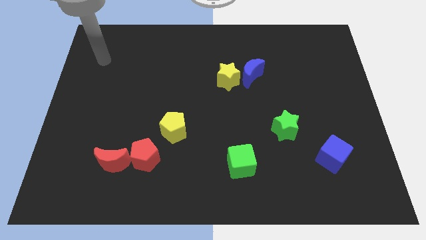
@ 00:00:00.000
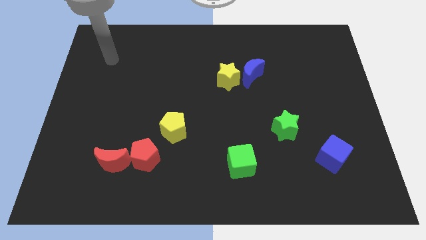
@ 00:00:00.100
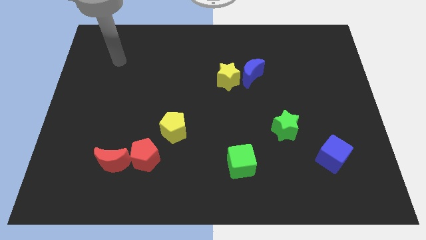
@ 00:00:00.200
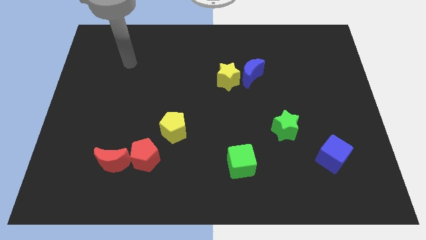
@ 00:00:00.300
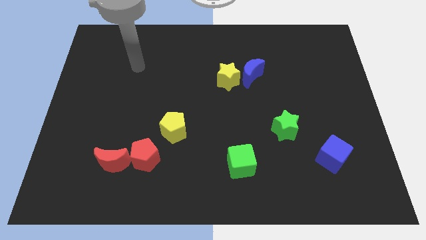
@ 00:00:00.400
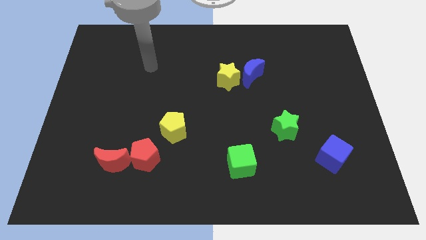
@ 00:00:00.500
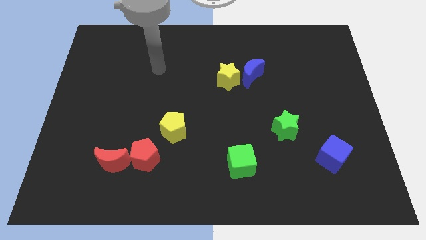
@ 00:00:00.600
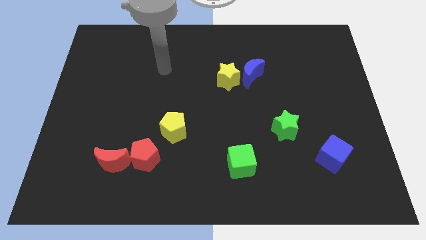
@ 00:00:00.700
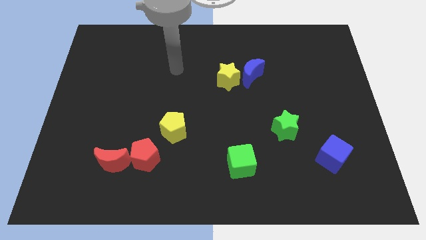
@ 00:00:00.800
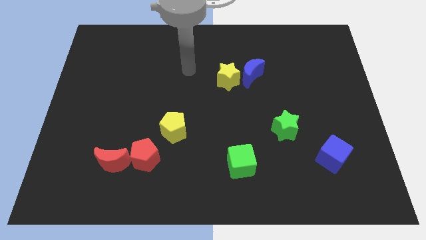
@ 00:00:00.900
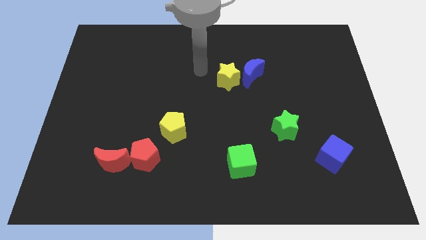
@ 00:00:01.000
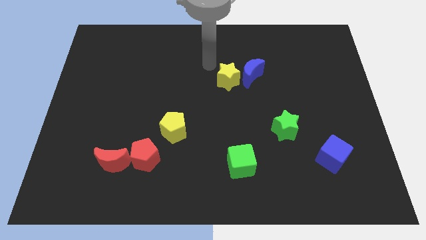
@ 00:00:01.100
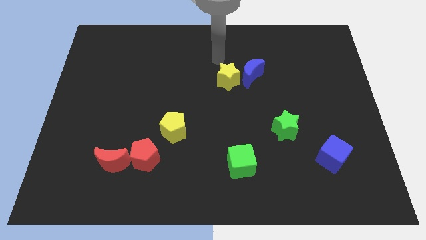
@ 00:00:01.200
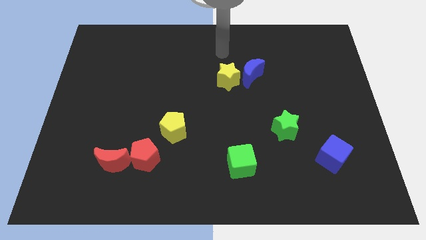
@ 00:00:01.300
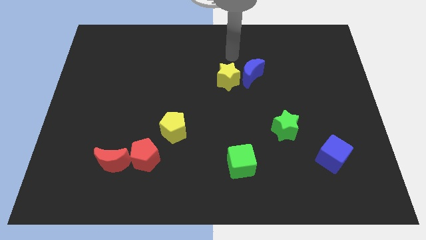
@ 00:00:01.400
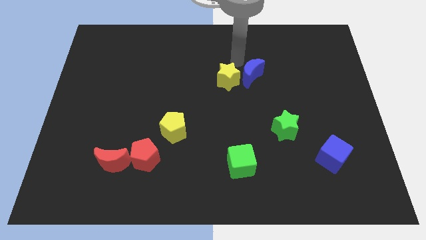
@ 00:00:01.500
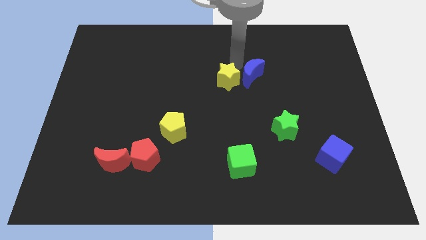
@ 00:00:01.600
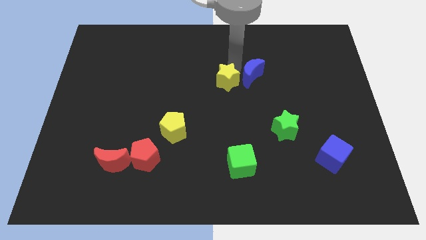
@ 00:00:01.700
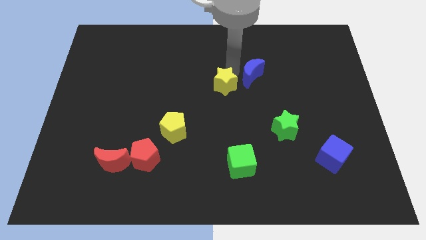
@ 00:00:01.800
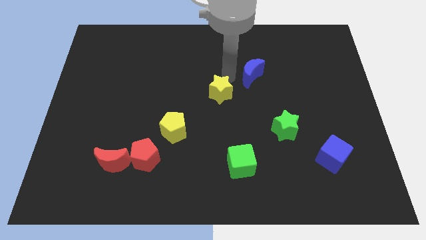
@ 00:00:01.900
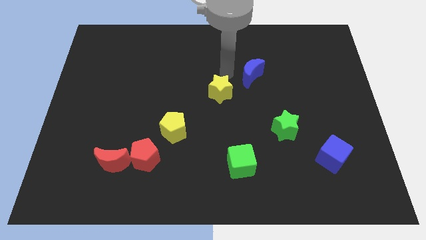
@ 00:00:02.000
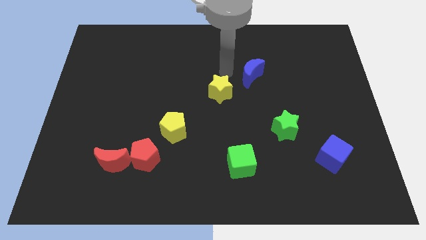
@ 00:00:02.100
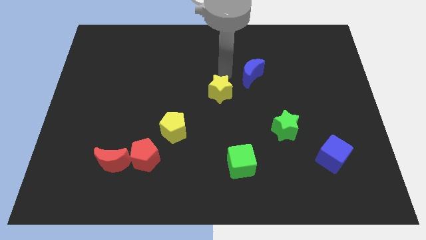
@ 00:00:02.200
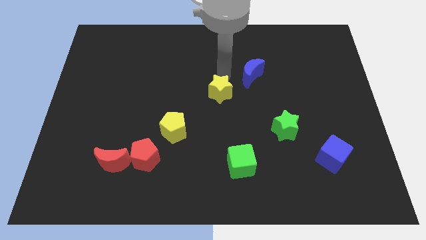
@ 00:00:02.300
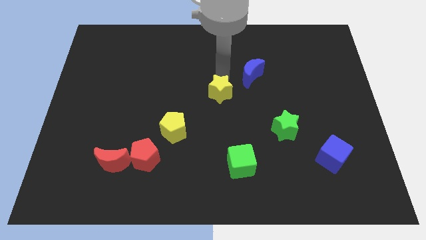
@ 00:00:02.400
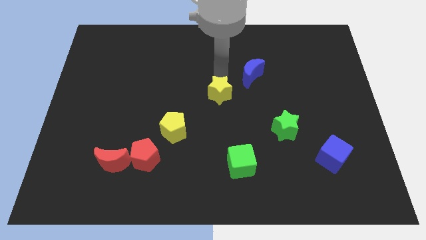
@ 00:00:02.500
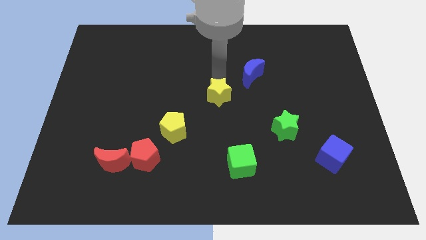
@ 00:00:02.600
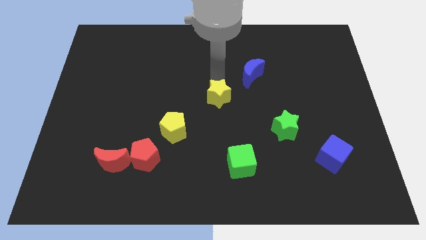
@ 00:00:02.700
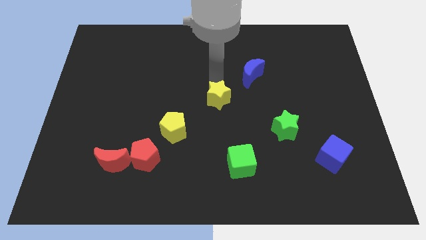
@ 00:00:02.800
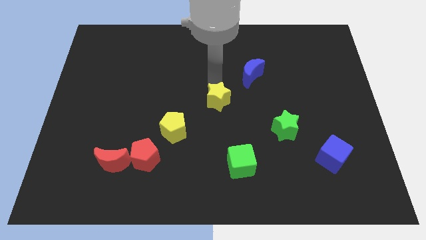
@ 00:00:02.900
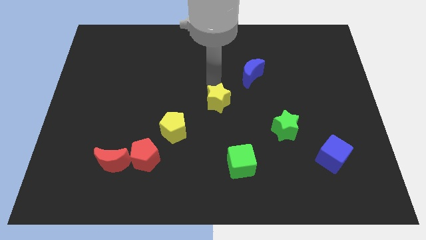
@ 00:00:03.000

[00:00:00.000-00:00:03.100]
move the yellow star somewhat down

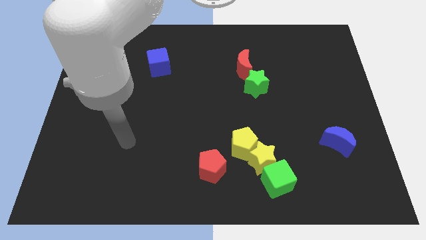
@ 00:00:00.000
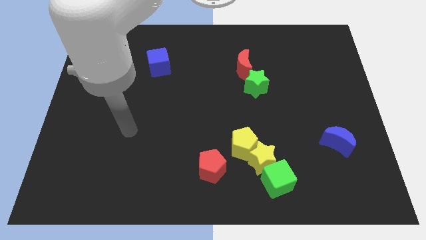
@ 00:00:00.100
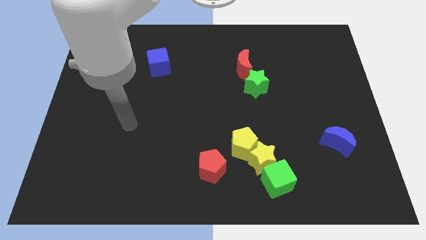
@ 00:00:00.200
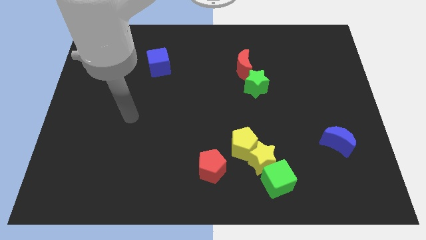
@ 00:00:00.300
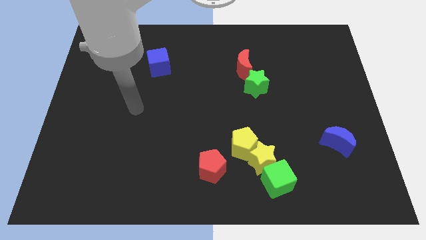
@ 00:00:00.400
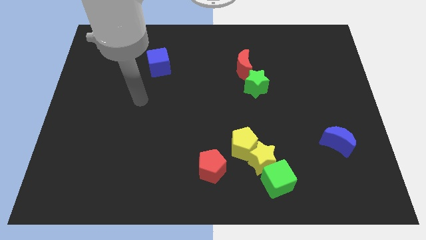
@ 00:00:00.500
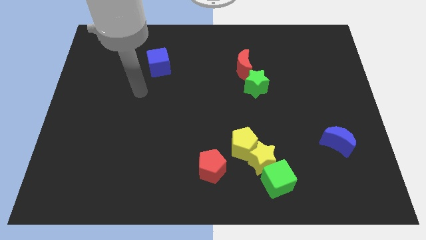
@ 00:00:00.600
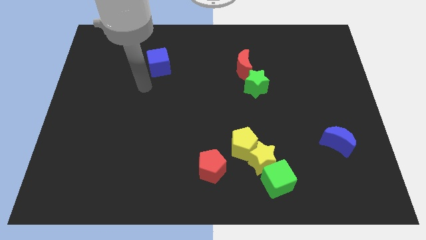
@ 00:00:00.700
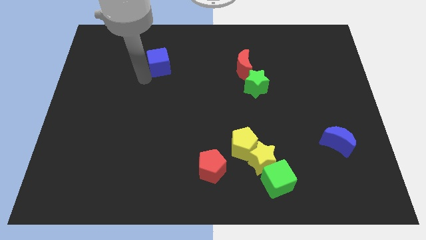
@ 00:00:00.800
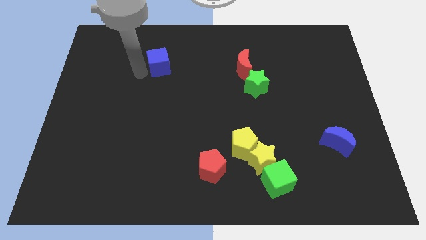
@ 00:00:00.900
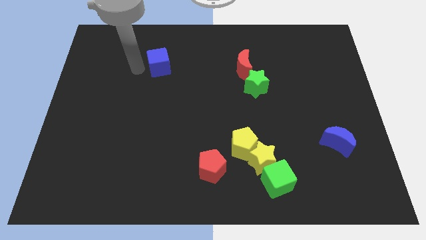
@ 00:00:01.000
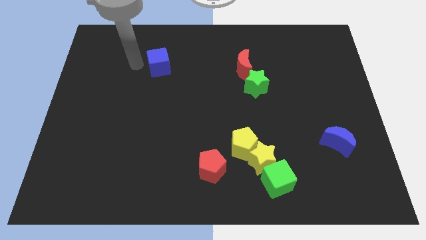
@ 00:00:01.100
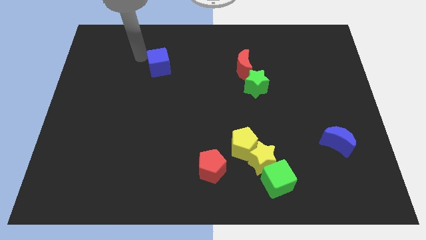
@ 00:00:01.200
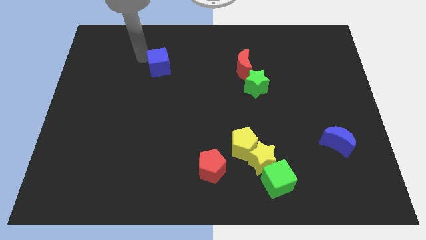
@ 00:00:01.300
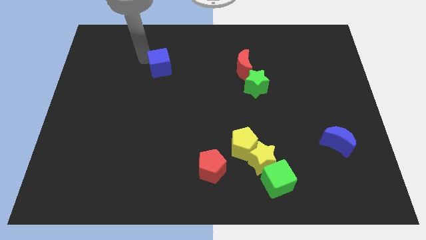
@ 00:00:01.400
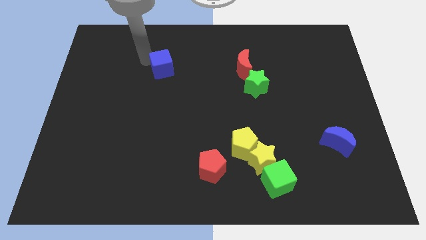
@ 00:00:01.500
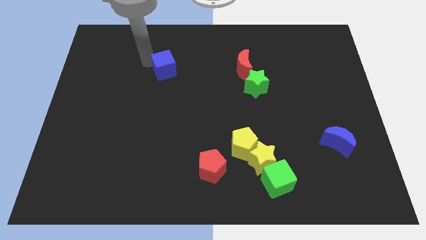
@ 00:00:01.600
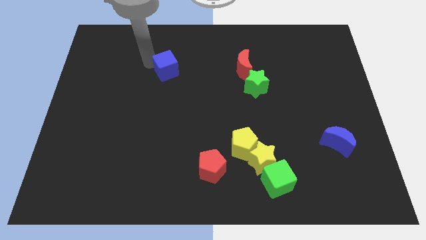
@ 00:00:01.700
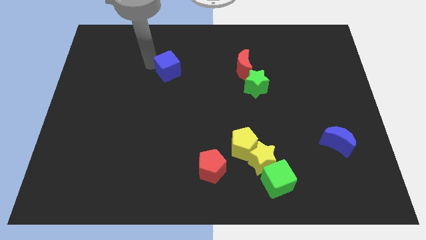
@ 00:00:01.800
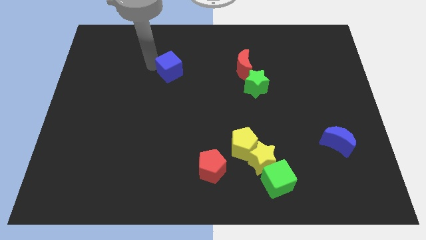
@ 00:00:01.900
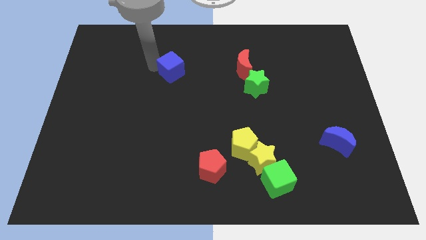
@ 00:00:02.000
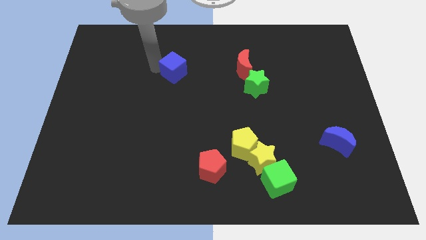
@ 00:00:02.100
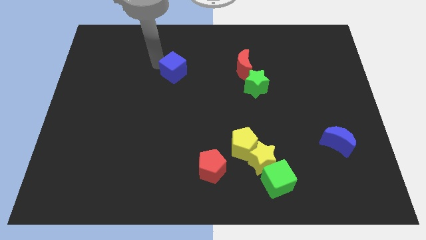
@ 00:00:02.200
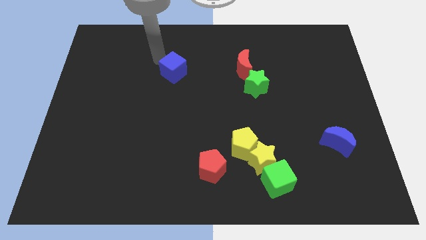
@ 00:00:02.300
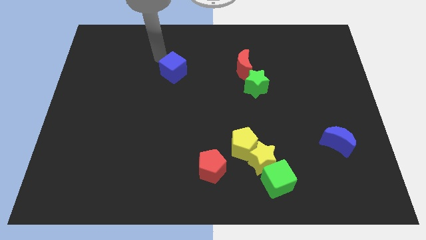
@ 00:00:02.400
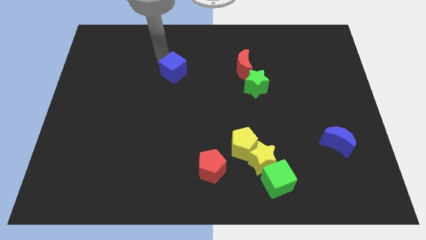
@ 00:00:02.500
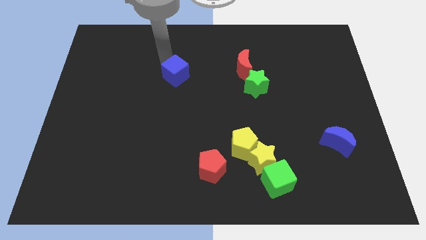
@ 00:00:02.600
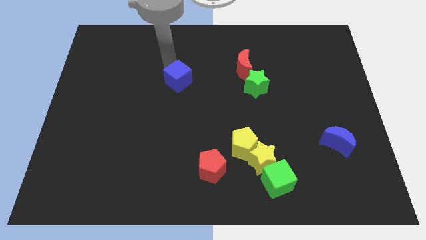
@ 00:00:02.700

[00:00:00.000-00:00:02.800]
slightly move the blue cube down and right diagonally

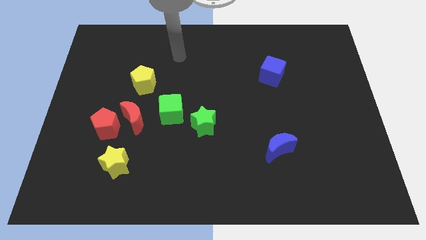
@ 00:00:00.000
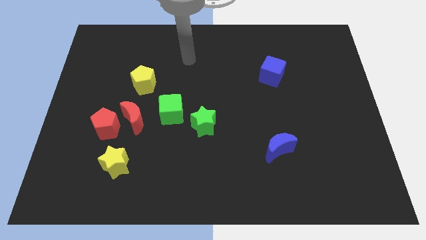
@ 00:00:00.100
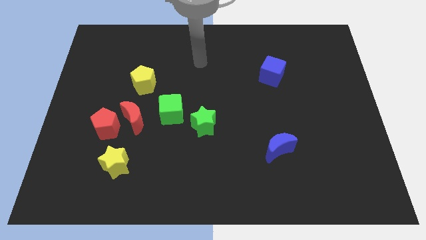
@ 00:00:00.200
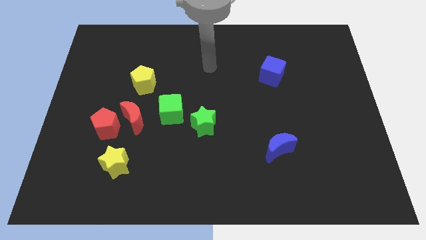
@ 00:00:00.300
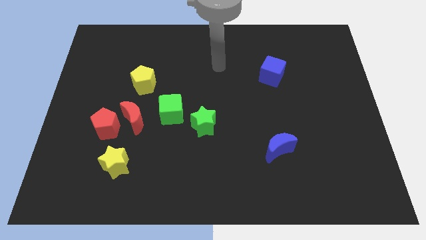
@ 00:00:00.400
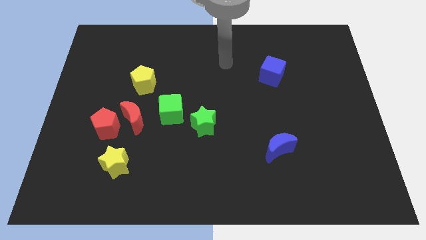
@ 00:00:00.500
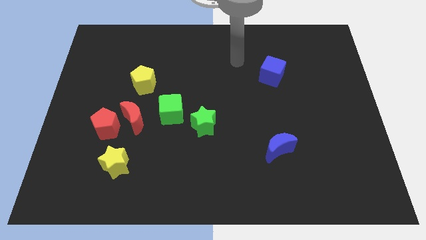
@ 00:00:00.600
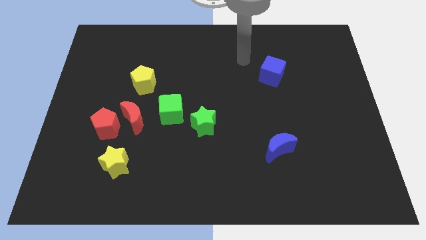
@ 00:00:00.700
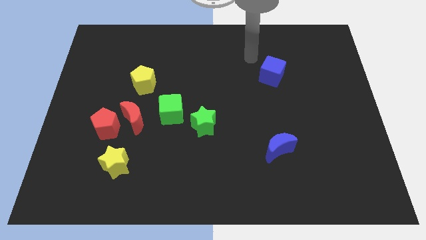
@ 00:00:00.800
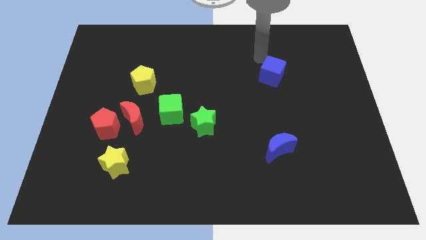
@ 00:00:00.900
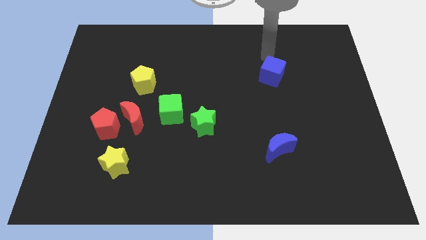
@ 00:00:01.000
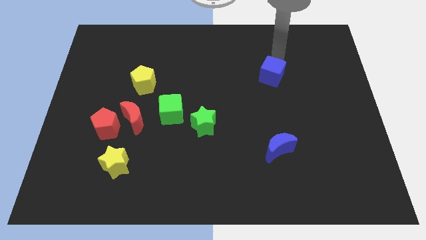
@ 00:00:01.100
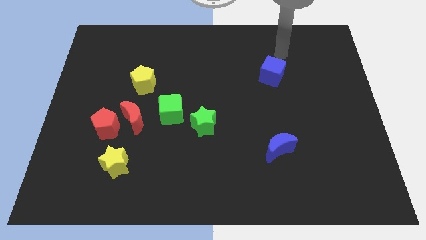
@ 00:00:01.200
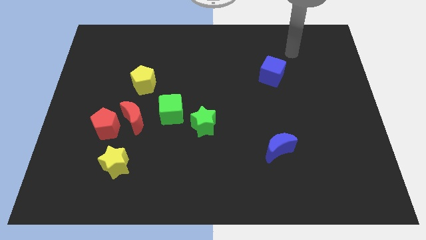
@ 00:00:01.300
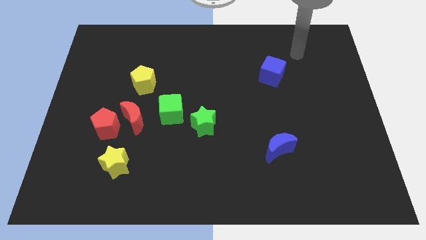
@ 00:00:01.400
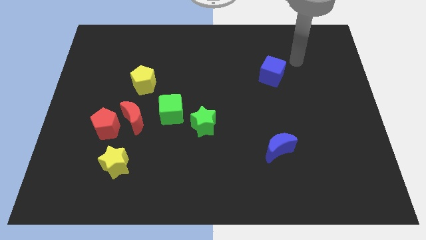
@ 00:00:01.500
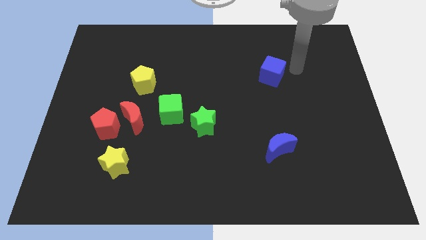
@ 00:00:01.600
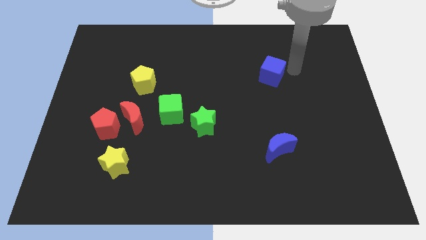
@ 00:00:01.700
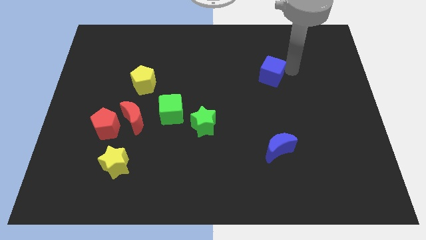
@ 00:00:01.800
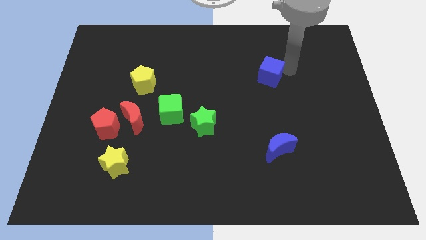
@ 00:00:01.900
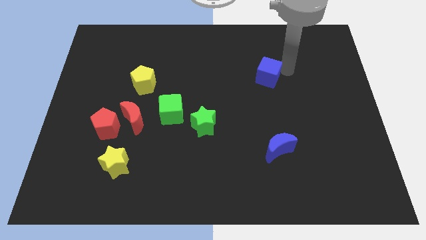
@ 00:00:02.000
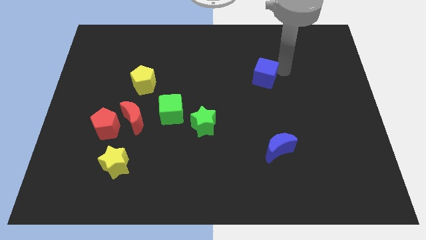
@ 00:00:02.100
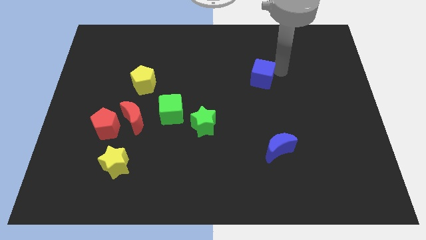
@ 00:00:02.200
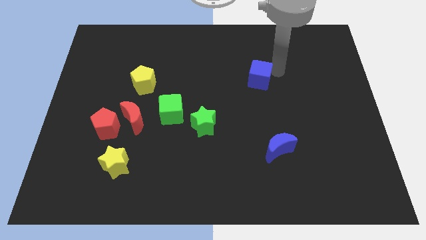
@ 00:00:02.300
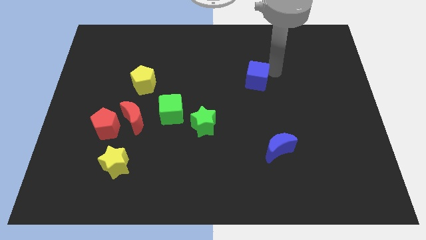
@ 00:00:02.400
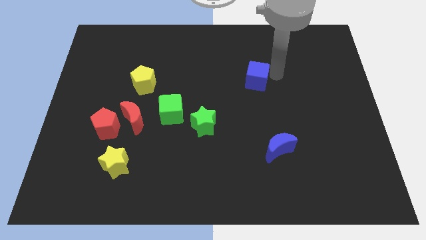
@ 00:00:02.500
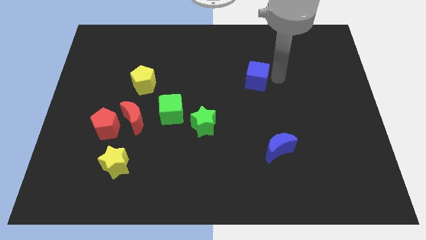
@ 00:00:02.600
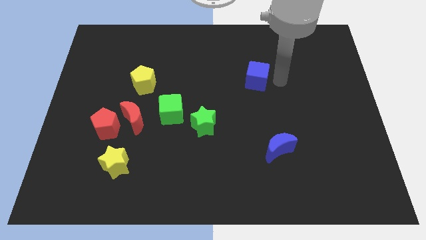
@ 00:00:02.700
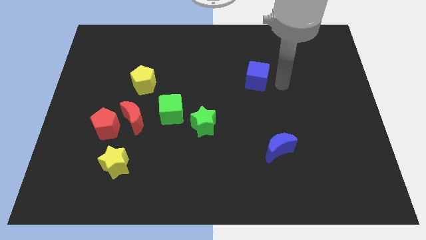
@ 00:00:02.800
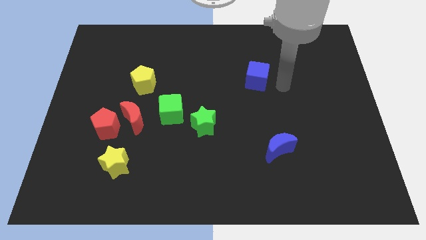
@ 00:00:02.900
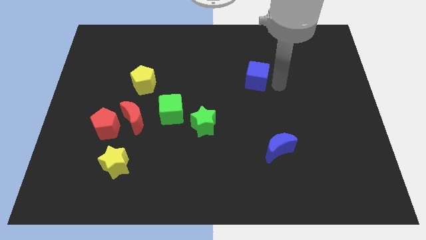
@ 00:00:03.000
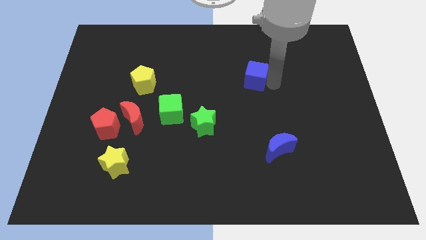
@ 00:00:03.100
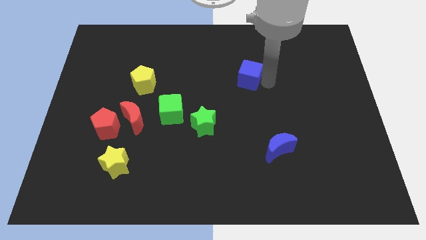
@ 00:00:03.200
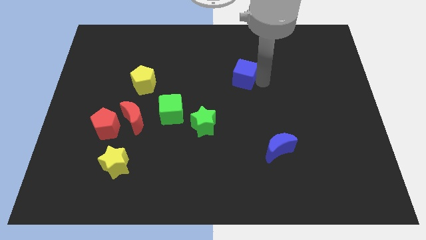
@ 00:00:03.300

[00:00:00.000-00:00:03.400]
push the blue cube left slightly
